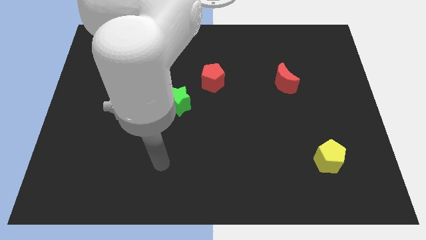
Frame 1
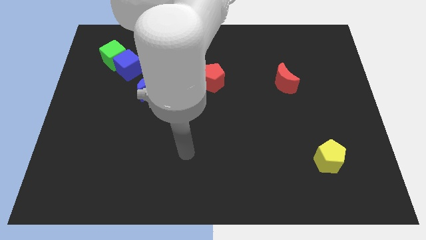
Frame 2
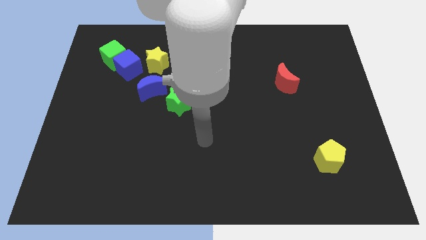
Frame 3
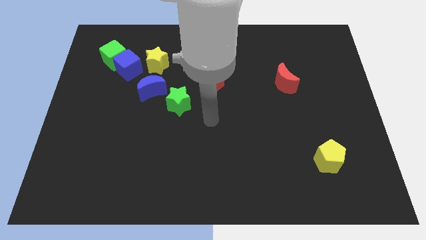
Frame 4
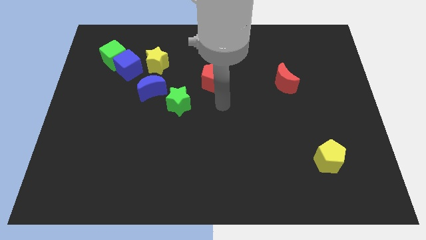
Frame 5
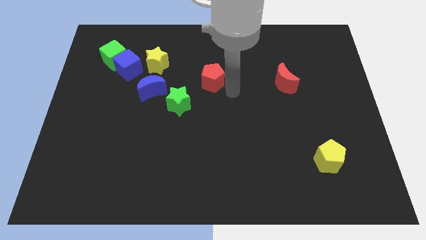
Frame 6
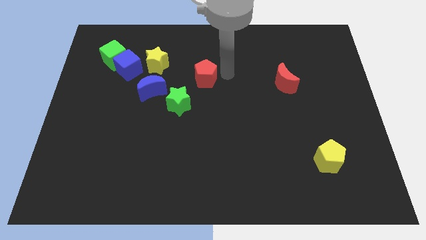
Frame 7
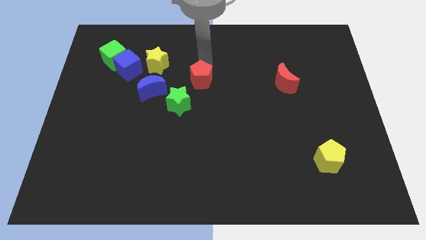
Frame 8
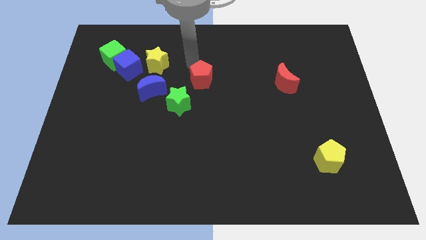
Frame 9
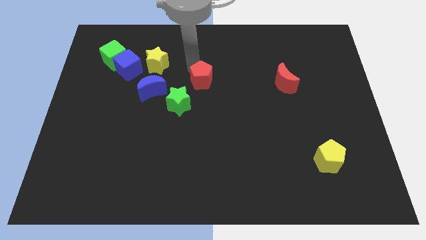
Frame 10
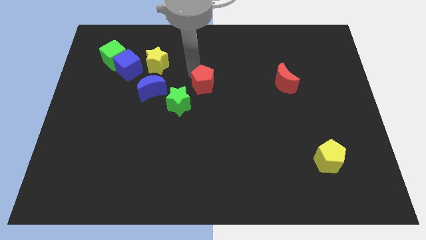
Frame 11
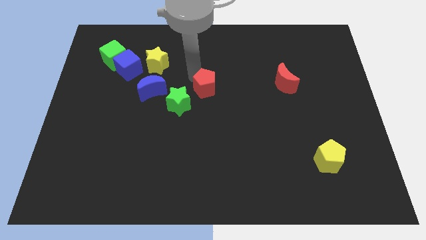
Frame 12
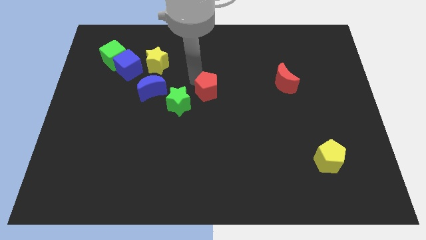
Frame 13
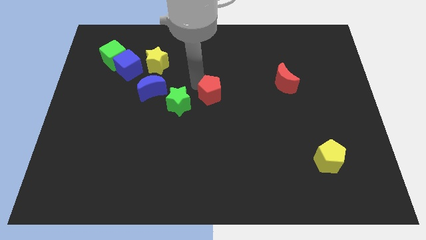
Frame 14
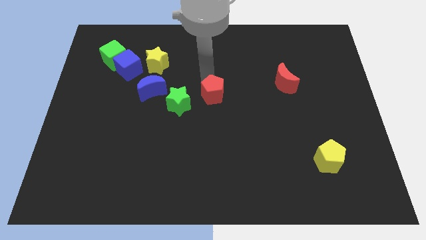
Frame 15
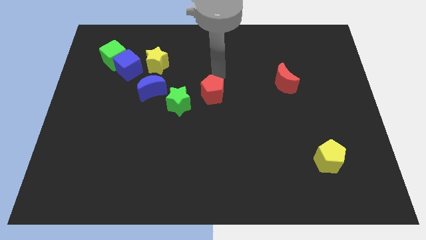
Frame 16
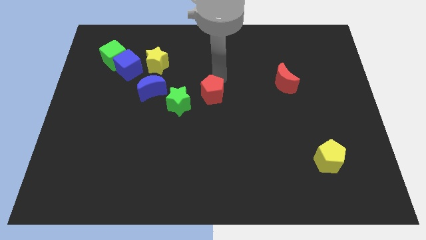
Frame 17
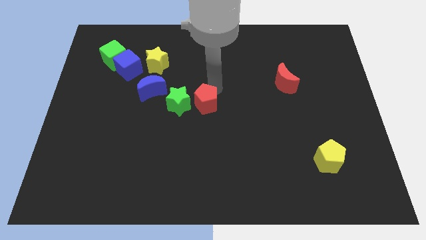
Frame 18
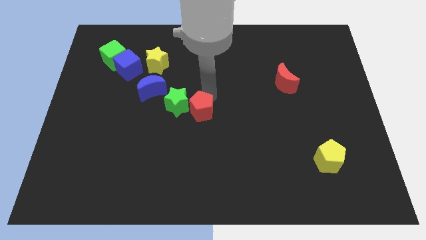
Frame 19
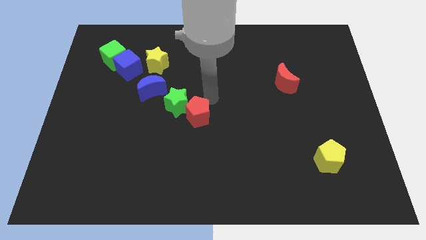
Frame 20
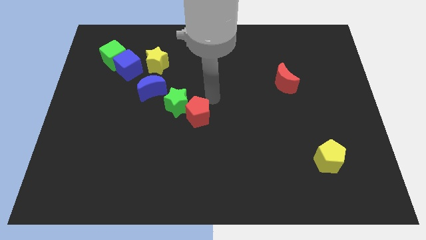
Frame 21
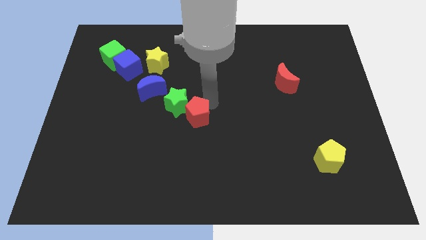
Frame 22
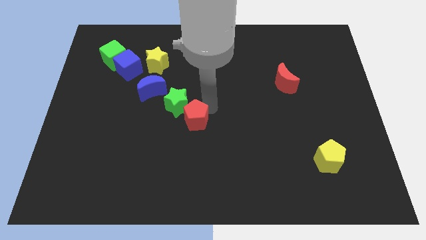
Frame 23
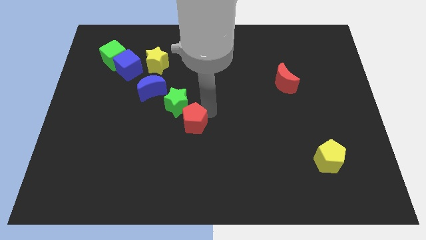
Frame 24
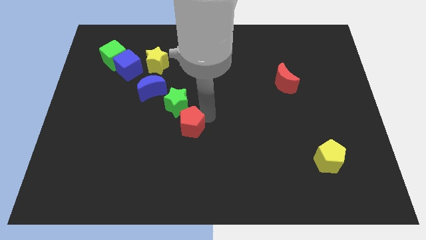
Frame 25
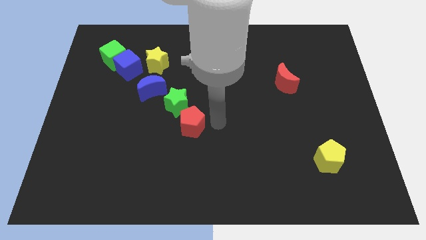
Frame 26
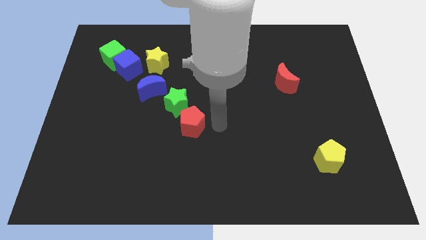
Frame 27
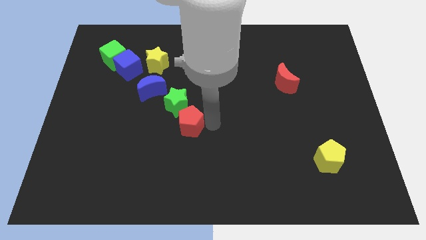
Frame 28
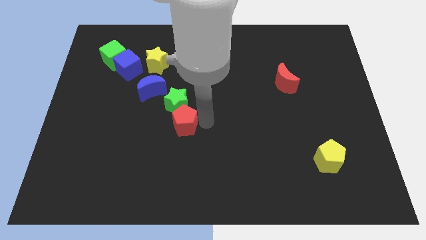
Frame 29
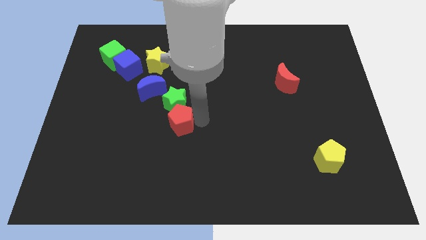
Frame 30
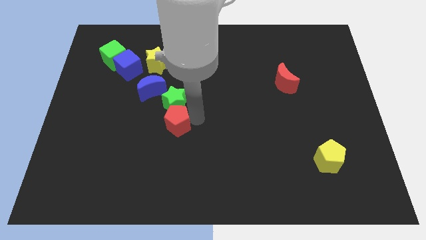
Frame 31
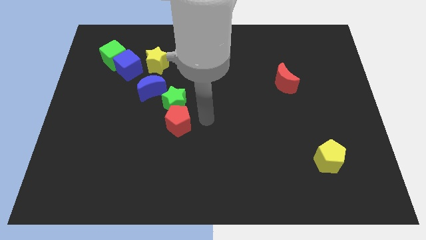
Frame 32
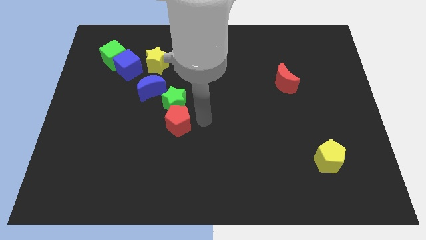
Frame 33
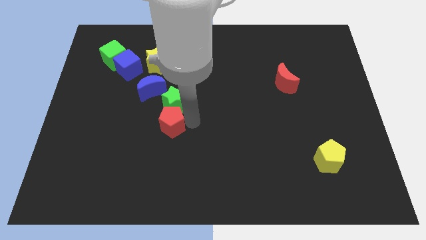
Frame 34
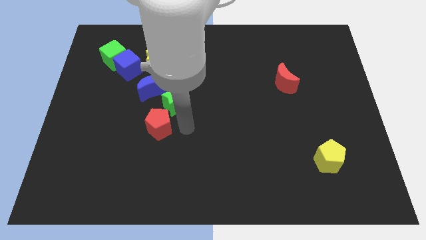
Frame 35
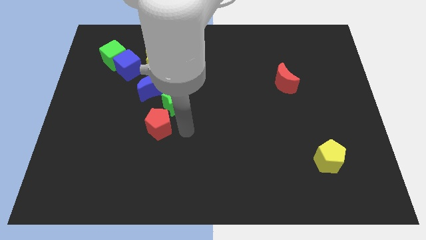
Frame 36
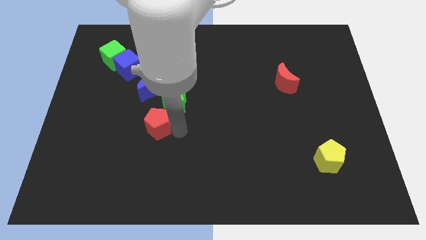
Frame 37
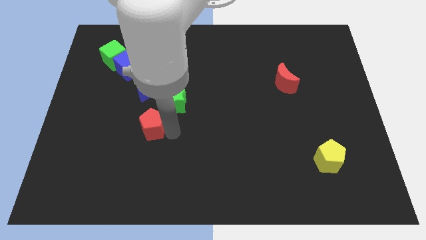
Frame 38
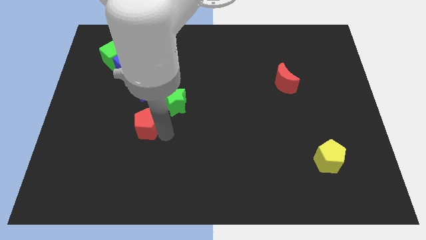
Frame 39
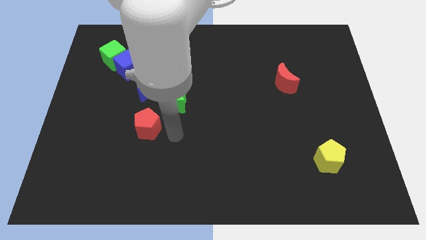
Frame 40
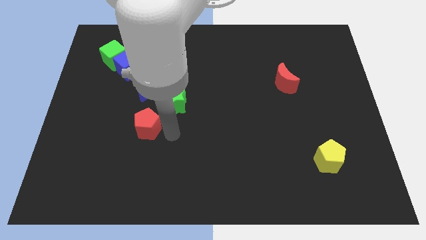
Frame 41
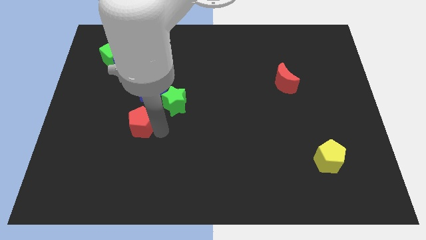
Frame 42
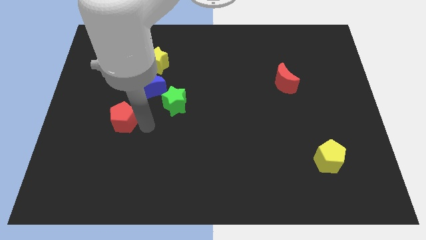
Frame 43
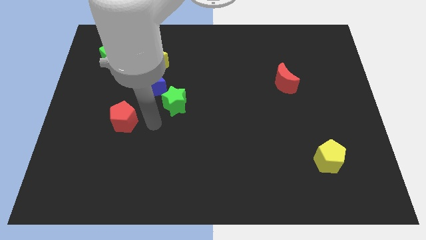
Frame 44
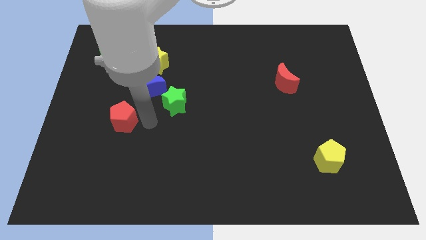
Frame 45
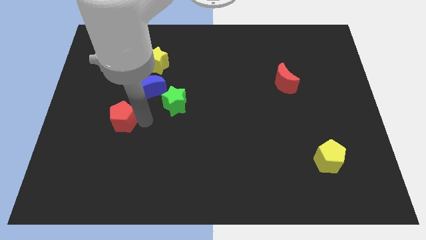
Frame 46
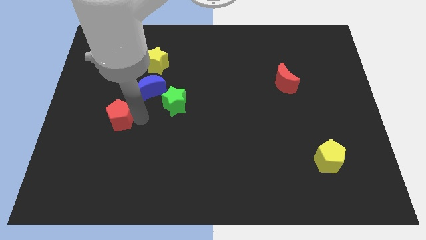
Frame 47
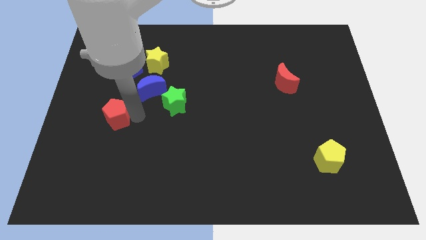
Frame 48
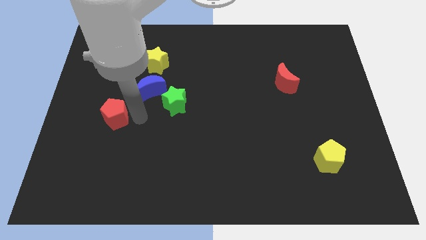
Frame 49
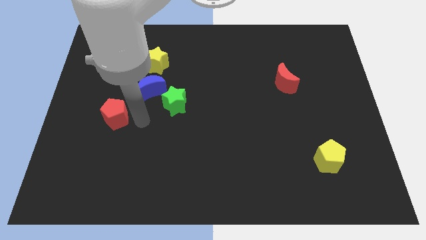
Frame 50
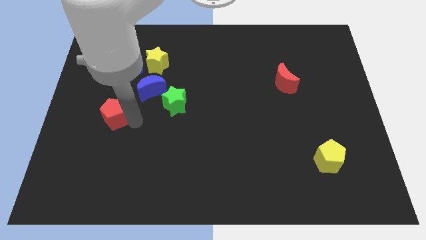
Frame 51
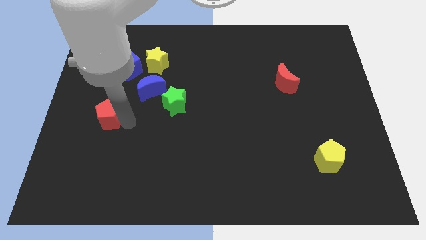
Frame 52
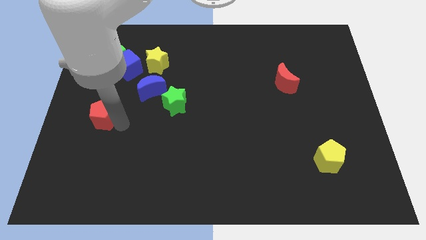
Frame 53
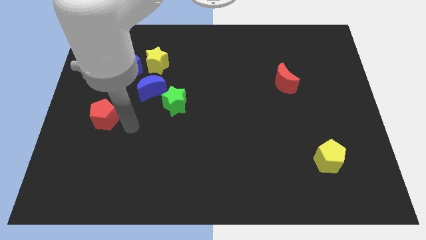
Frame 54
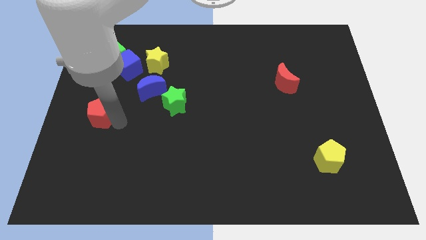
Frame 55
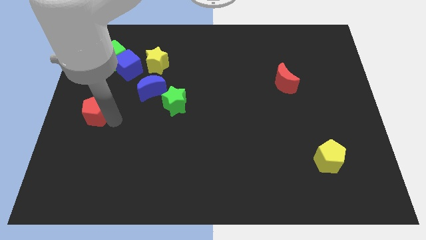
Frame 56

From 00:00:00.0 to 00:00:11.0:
slide the red pentagon to the center left
